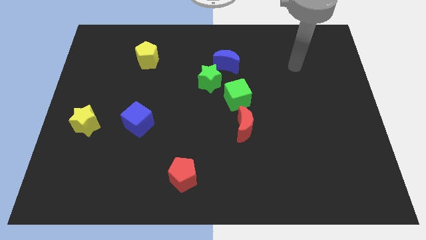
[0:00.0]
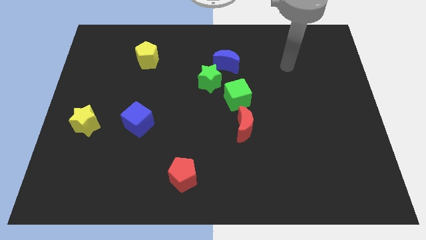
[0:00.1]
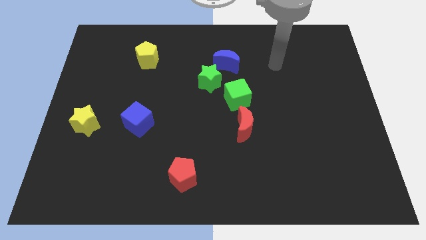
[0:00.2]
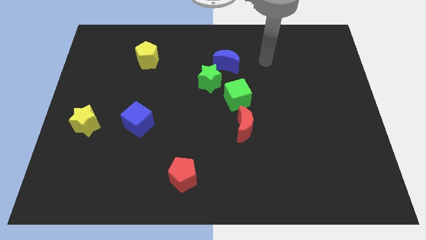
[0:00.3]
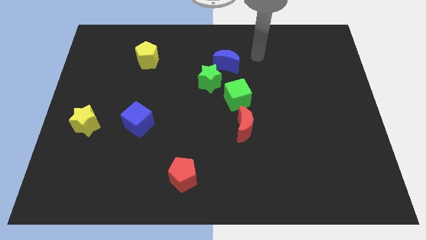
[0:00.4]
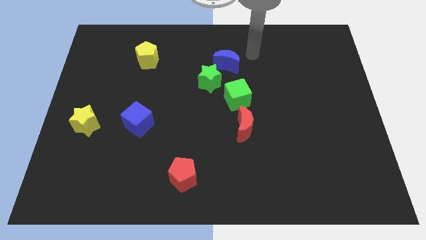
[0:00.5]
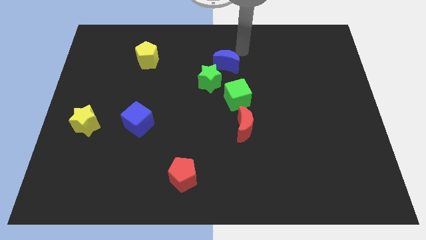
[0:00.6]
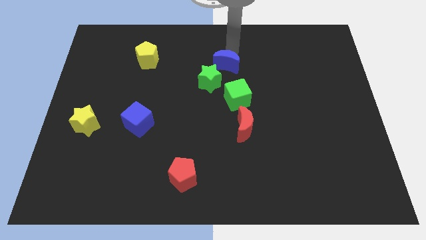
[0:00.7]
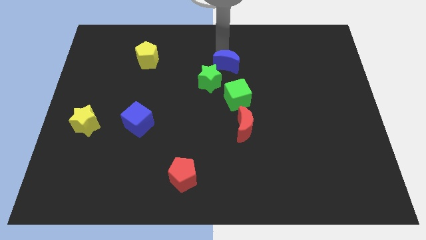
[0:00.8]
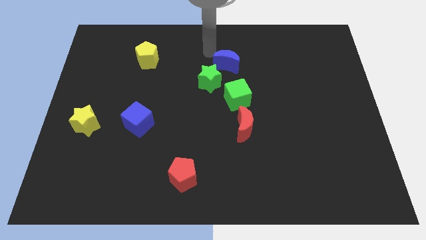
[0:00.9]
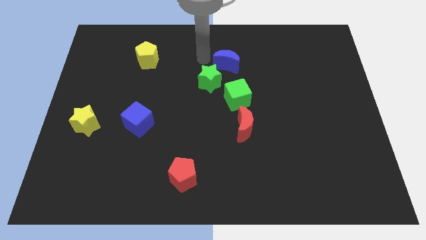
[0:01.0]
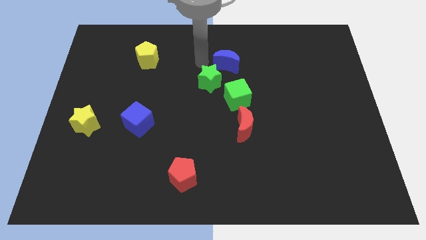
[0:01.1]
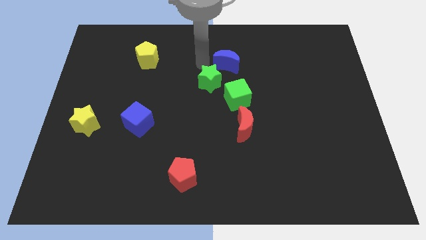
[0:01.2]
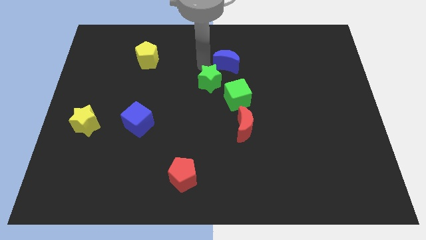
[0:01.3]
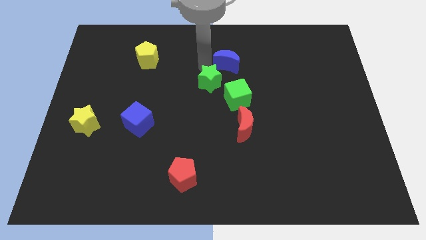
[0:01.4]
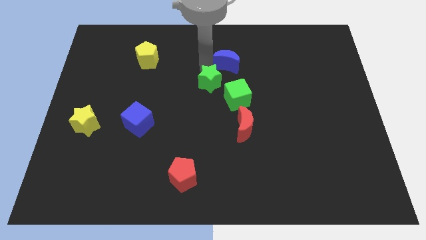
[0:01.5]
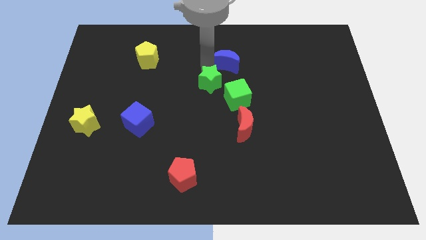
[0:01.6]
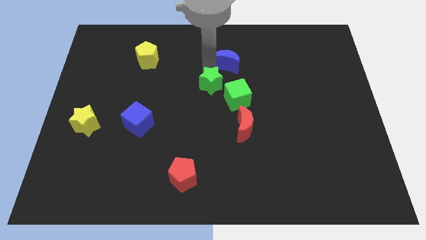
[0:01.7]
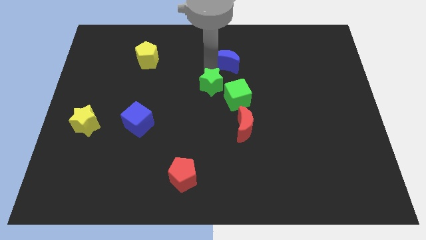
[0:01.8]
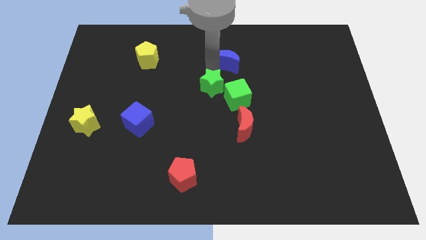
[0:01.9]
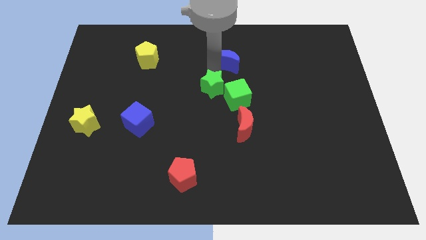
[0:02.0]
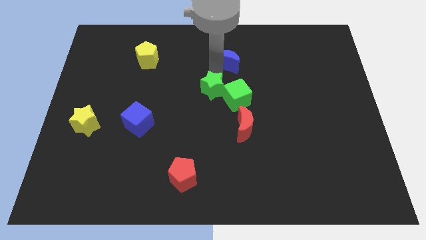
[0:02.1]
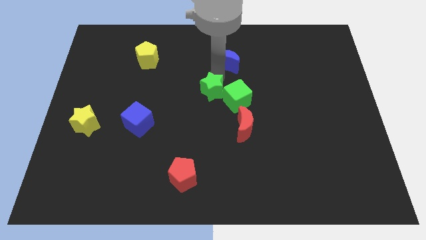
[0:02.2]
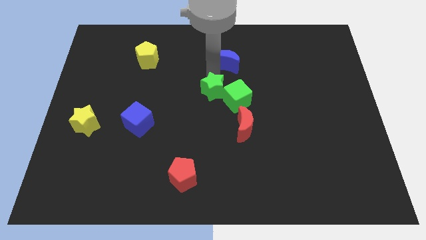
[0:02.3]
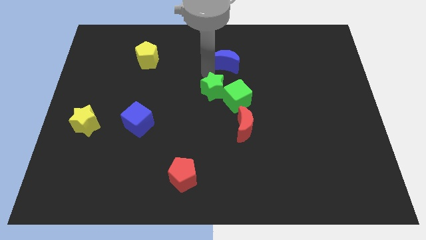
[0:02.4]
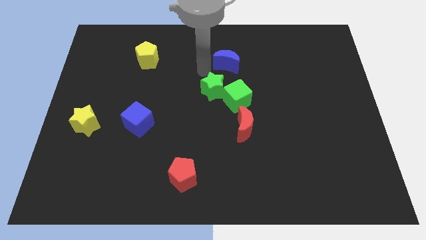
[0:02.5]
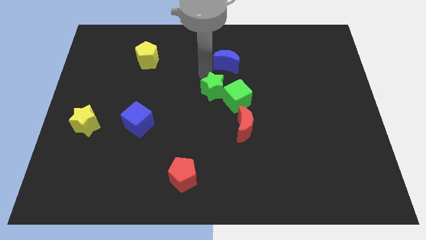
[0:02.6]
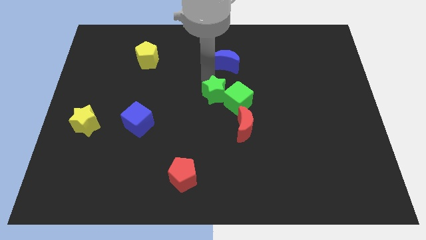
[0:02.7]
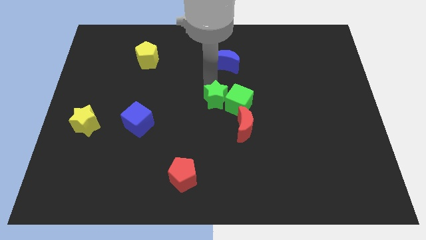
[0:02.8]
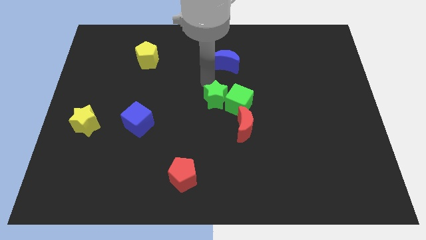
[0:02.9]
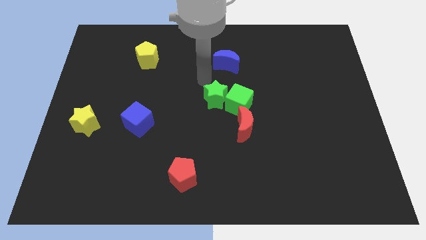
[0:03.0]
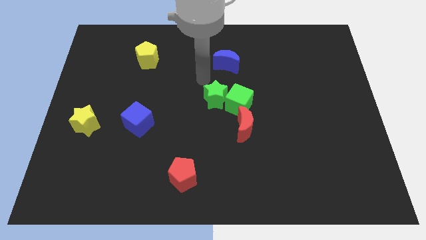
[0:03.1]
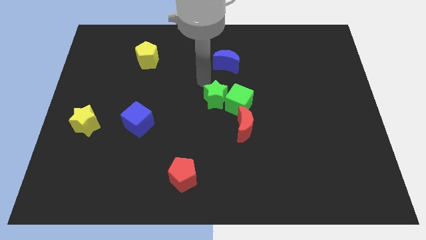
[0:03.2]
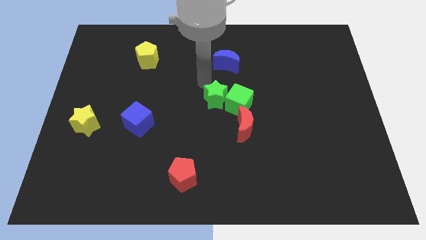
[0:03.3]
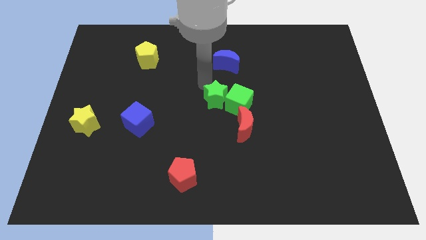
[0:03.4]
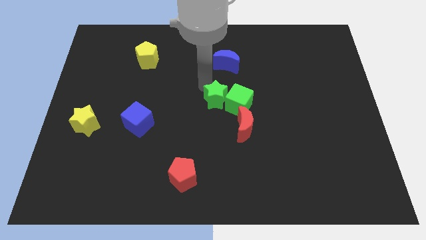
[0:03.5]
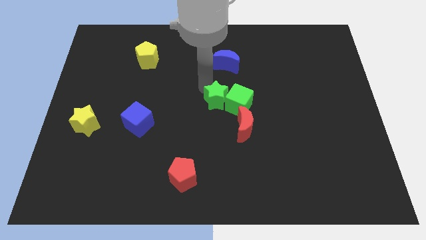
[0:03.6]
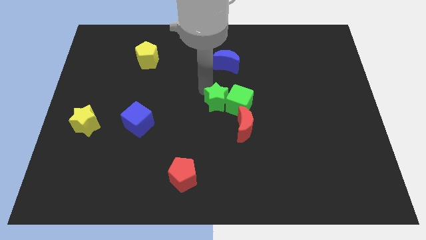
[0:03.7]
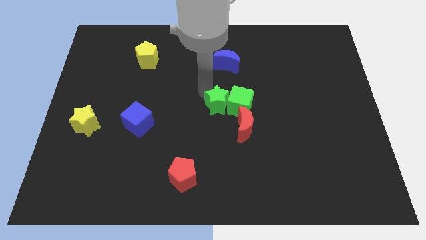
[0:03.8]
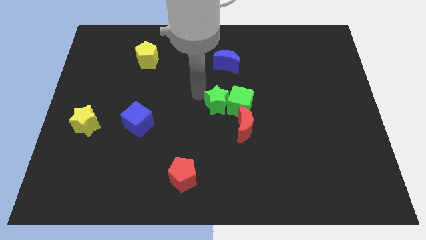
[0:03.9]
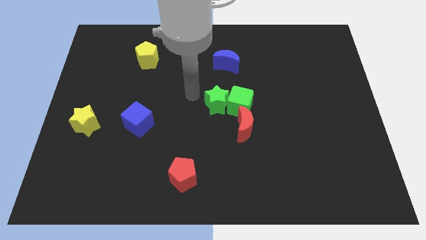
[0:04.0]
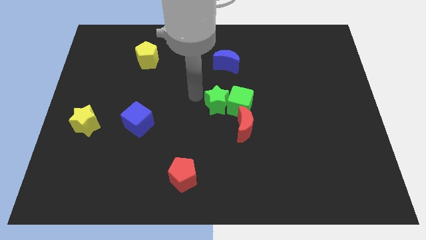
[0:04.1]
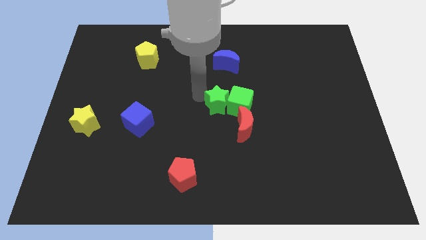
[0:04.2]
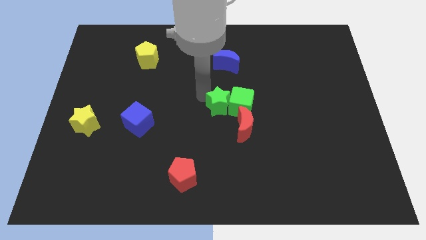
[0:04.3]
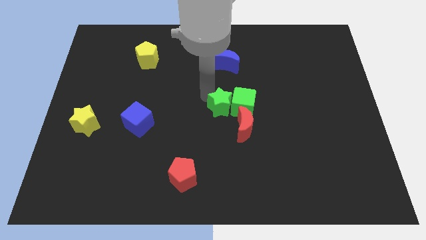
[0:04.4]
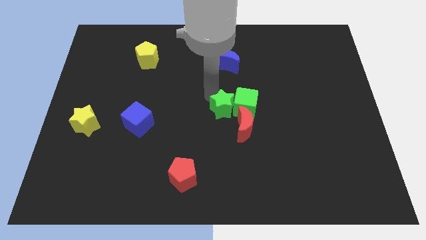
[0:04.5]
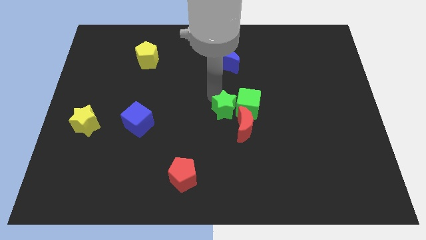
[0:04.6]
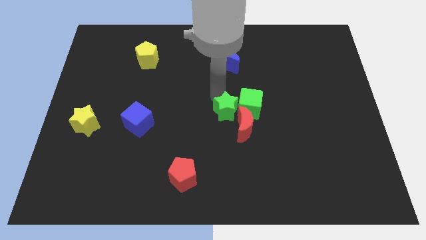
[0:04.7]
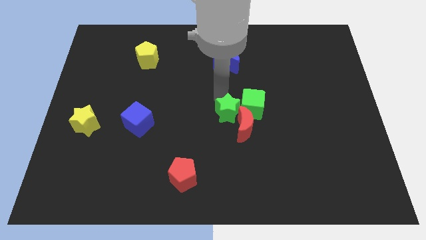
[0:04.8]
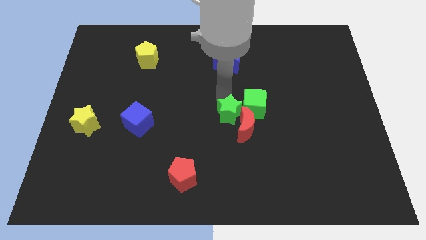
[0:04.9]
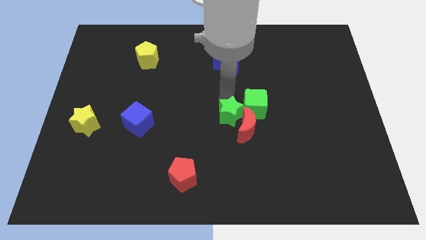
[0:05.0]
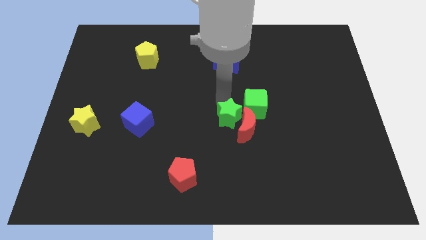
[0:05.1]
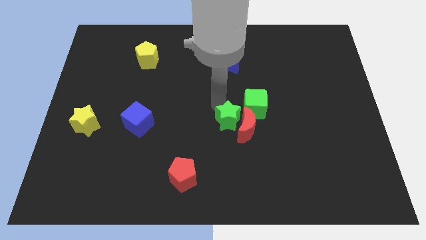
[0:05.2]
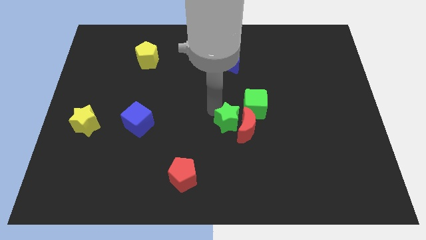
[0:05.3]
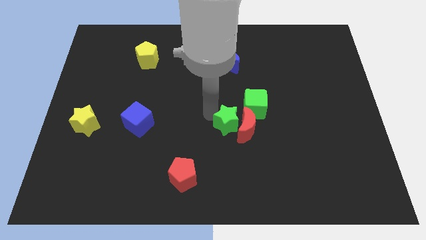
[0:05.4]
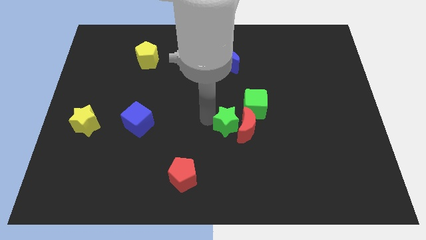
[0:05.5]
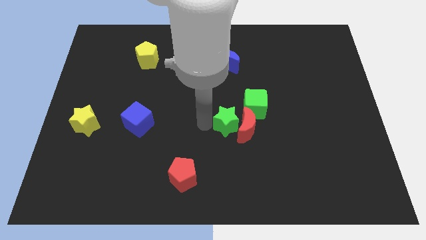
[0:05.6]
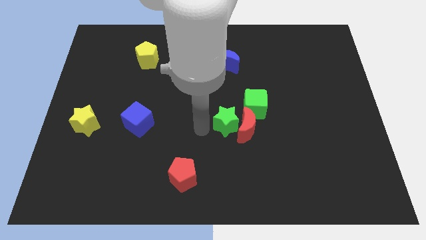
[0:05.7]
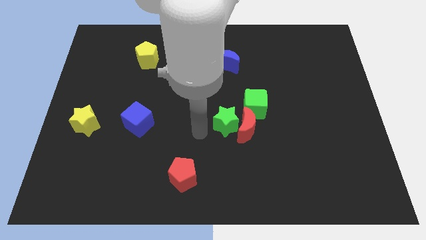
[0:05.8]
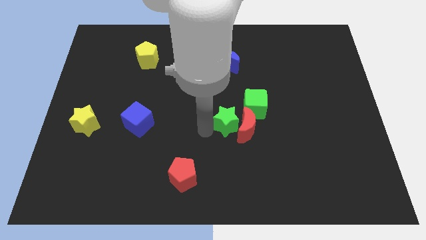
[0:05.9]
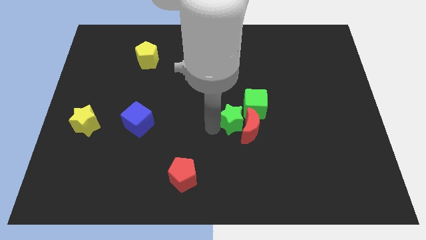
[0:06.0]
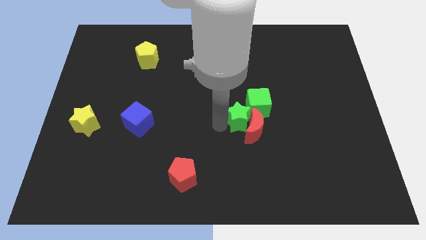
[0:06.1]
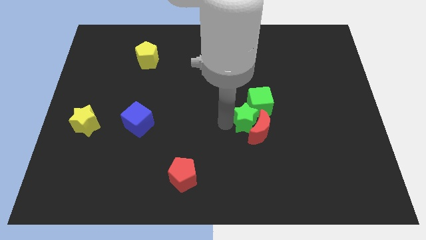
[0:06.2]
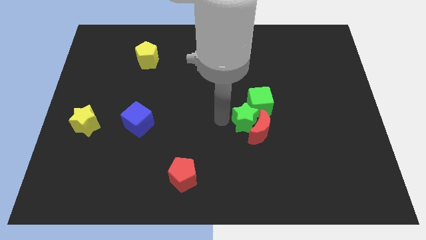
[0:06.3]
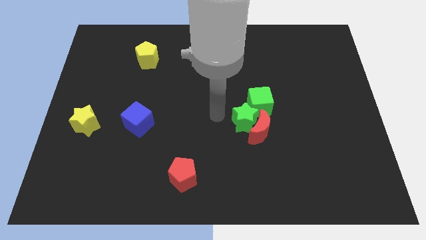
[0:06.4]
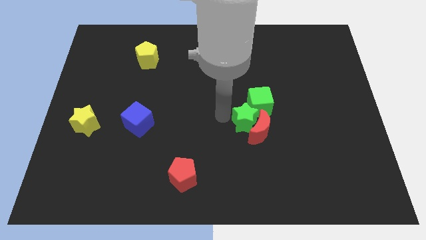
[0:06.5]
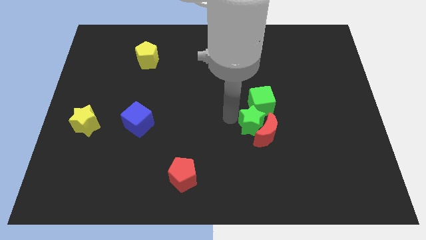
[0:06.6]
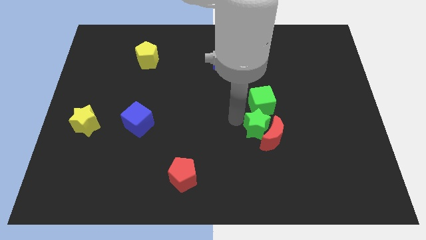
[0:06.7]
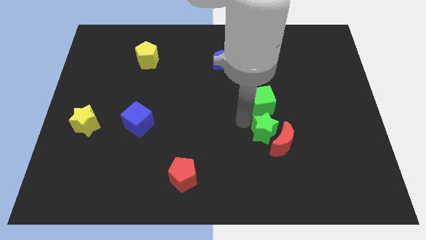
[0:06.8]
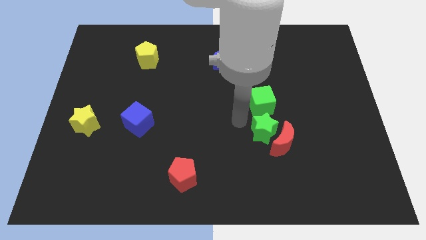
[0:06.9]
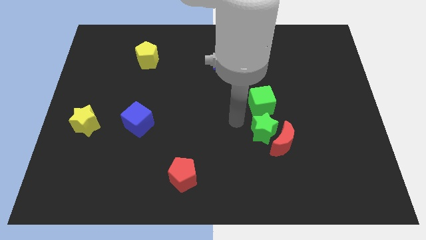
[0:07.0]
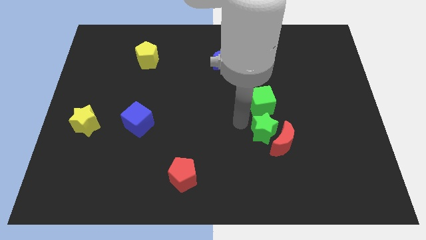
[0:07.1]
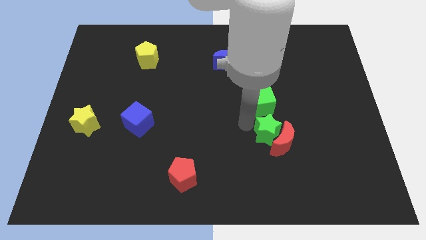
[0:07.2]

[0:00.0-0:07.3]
slide the green star diagonally downwards and to the right

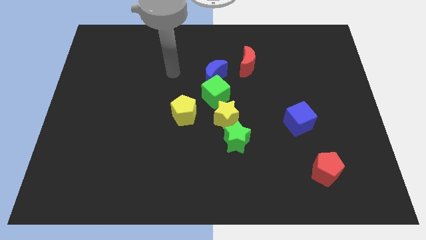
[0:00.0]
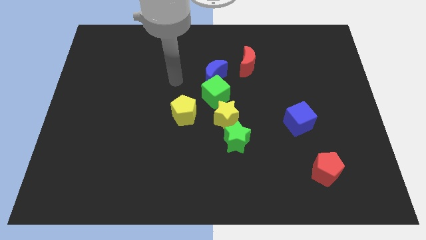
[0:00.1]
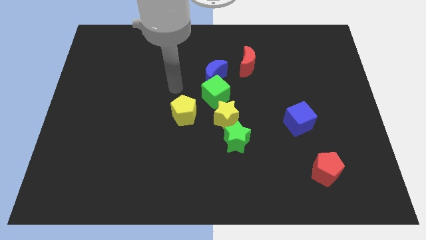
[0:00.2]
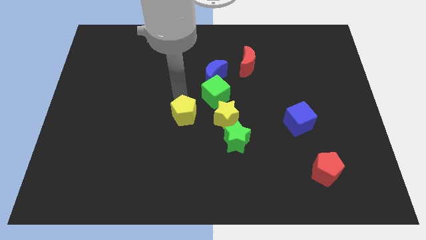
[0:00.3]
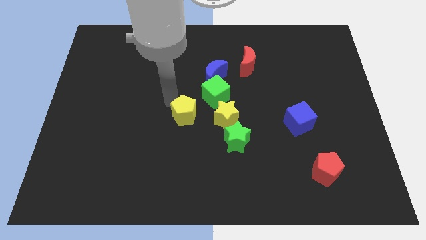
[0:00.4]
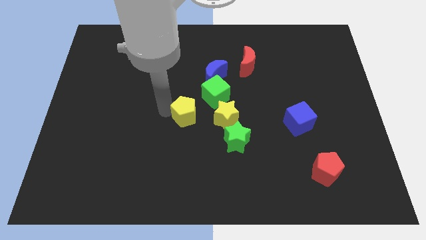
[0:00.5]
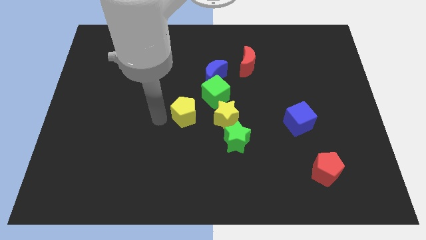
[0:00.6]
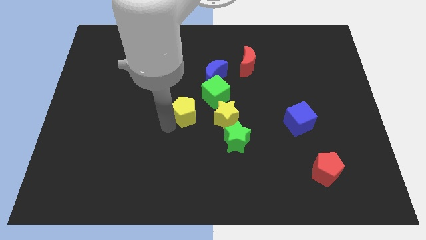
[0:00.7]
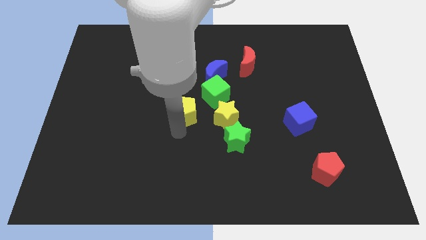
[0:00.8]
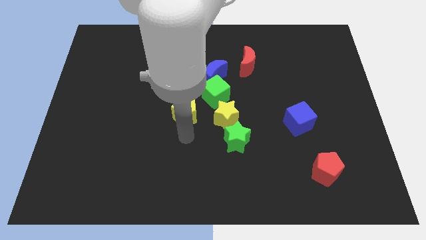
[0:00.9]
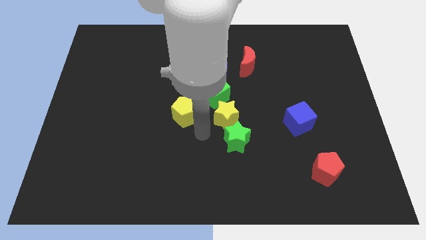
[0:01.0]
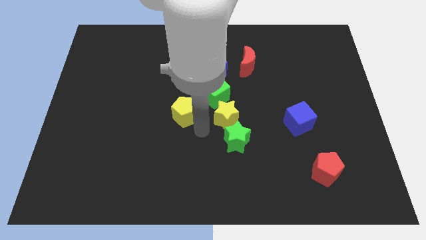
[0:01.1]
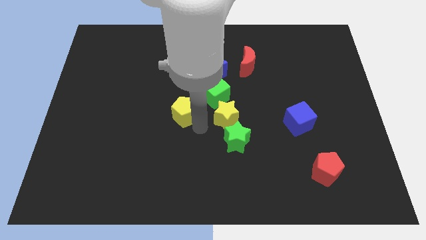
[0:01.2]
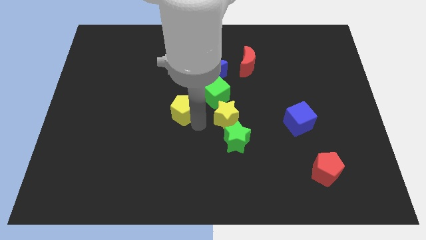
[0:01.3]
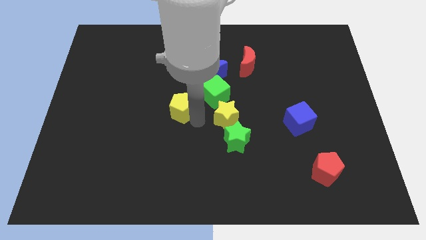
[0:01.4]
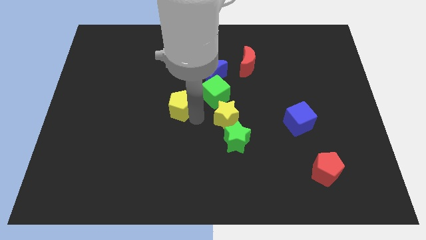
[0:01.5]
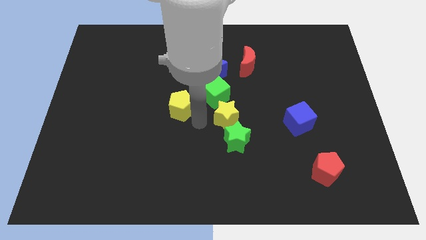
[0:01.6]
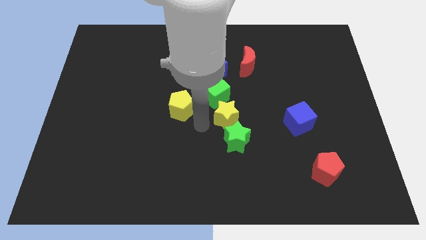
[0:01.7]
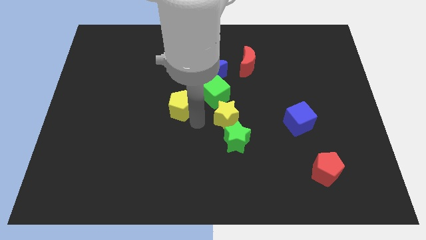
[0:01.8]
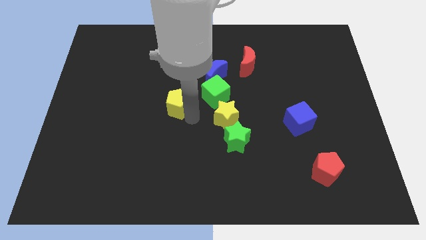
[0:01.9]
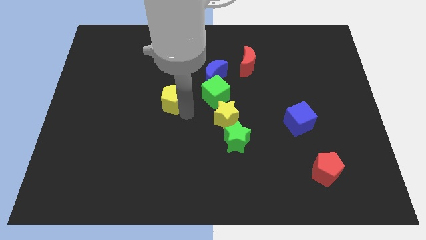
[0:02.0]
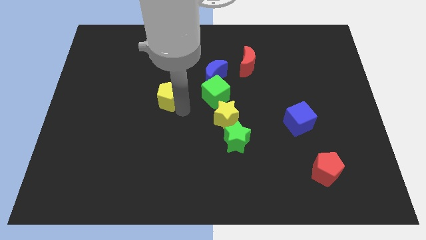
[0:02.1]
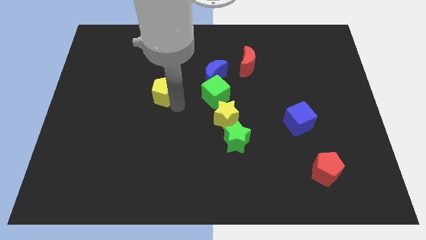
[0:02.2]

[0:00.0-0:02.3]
move the yellow pentagon up and left a little bit
